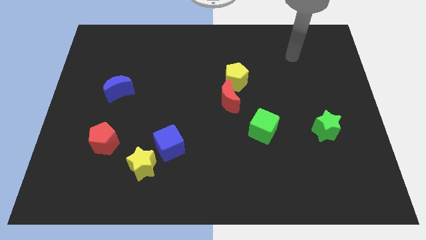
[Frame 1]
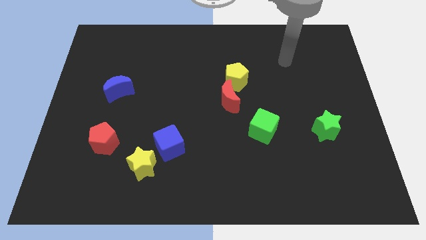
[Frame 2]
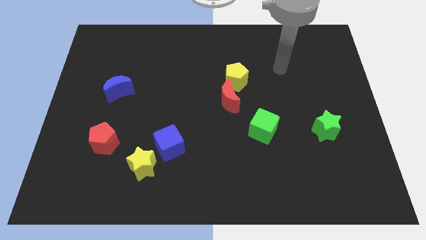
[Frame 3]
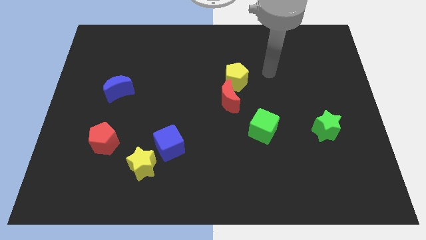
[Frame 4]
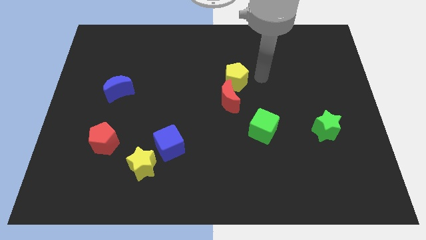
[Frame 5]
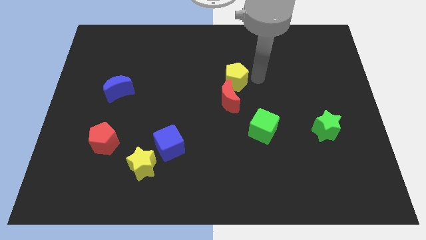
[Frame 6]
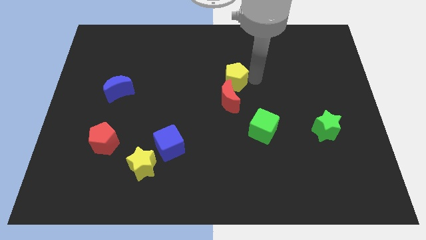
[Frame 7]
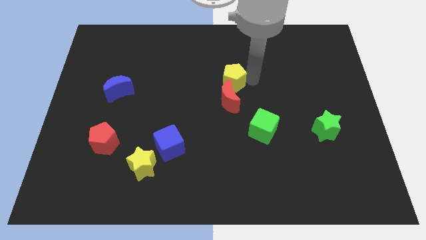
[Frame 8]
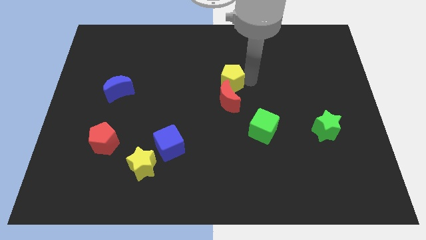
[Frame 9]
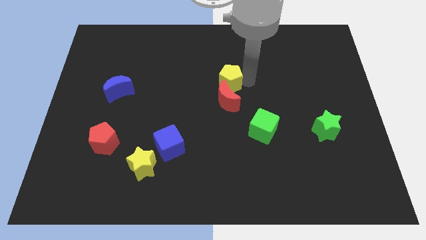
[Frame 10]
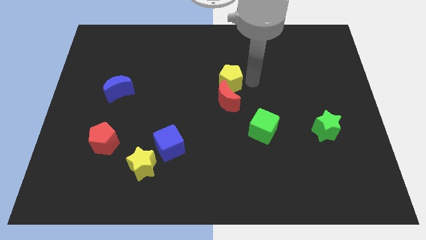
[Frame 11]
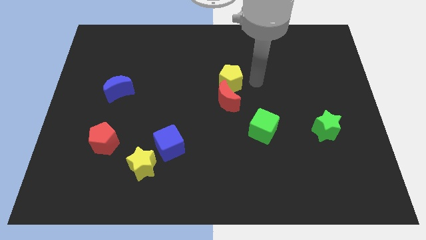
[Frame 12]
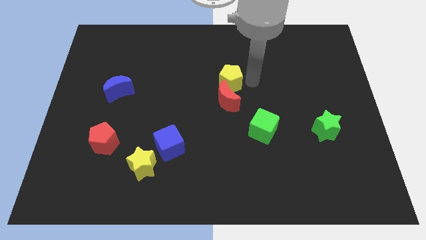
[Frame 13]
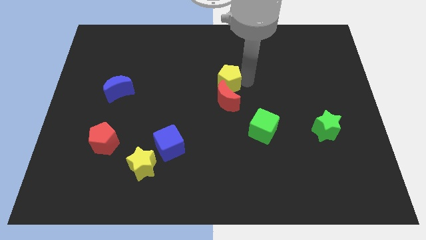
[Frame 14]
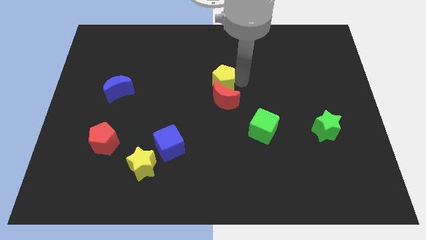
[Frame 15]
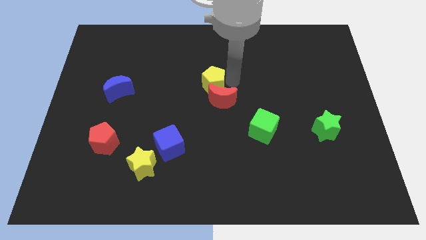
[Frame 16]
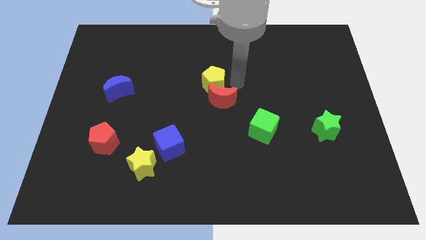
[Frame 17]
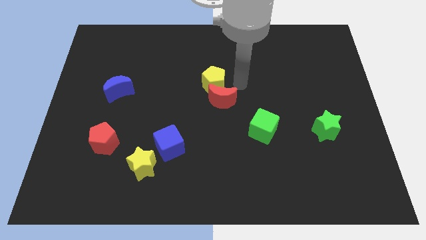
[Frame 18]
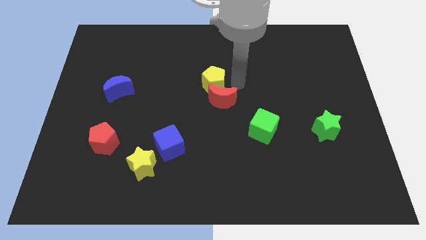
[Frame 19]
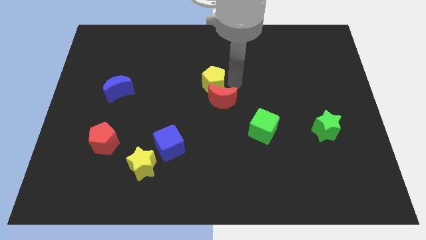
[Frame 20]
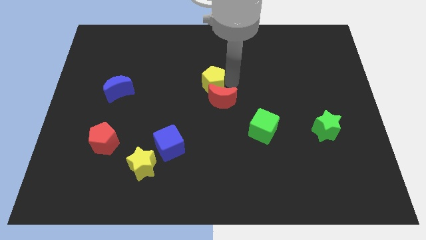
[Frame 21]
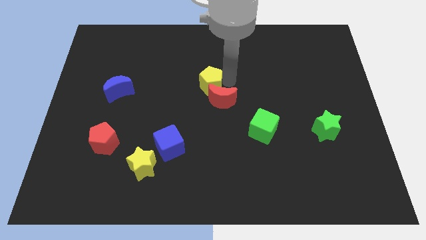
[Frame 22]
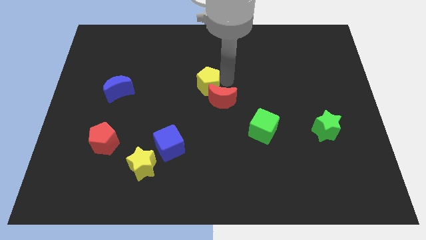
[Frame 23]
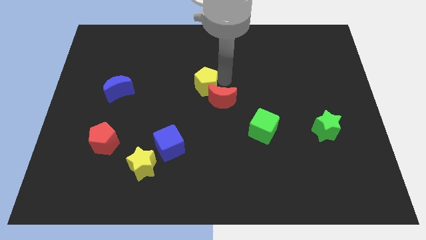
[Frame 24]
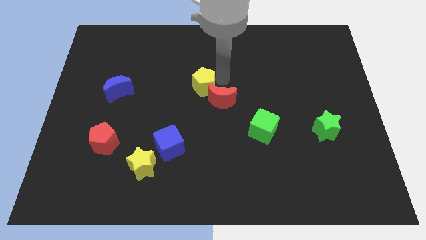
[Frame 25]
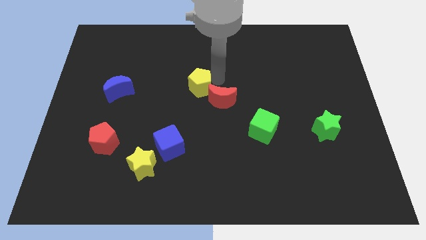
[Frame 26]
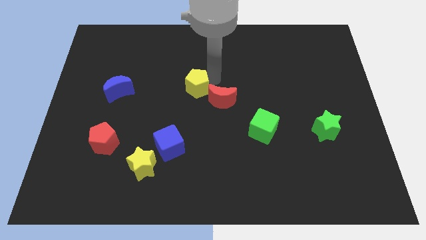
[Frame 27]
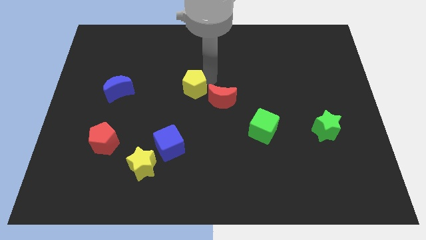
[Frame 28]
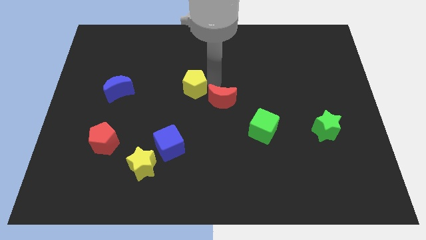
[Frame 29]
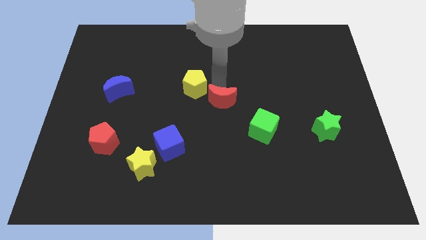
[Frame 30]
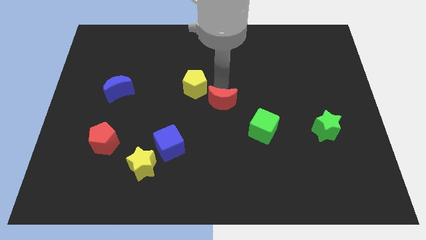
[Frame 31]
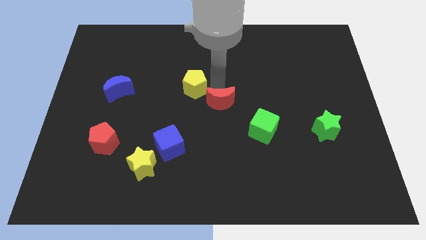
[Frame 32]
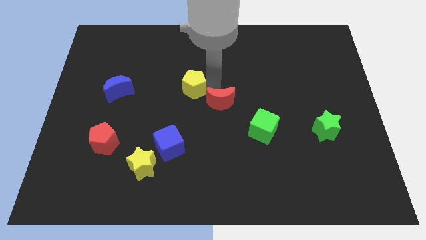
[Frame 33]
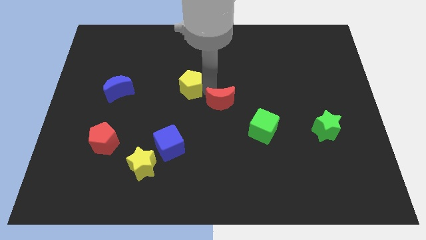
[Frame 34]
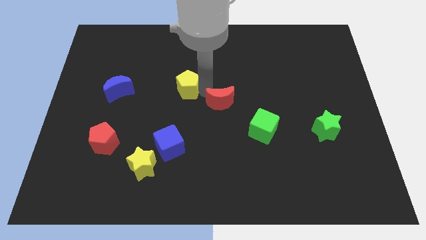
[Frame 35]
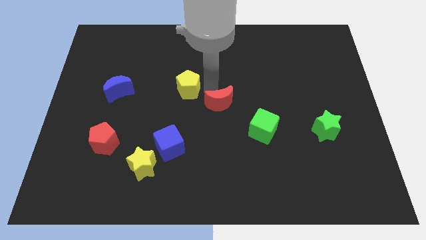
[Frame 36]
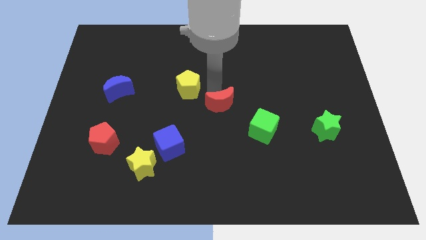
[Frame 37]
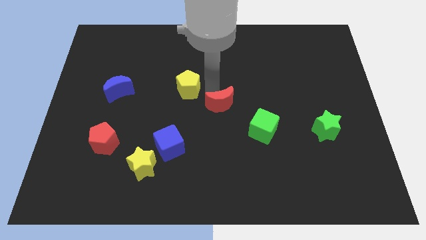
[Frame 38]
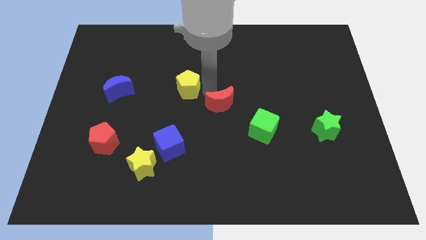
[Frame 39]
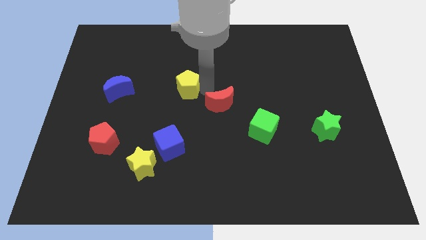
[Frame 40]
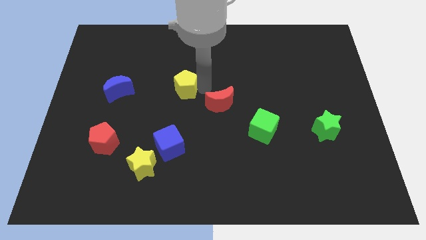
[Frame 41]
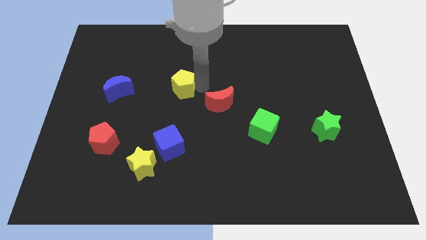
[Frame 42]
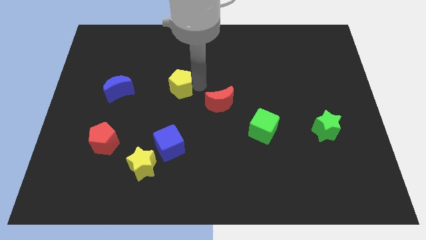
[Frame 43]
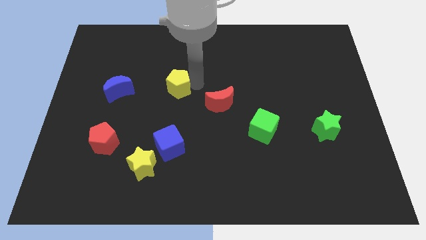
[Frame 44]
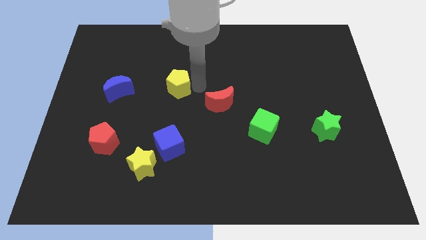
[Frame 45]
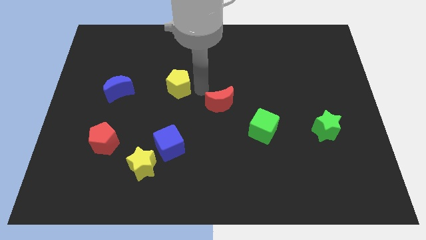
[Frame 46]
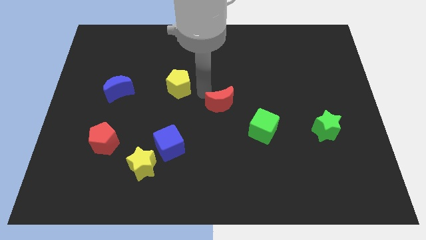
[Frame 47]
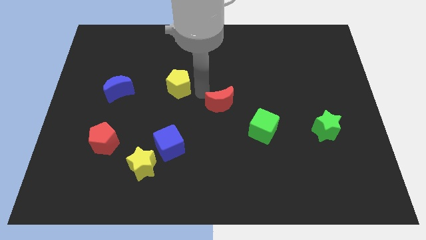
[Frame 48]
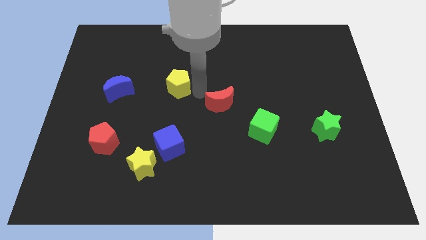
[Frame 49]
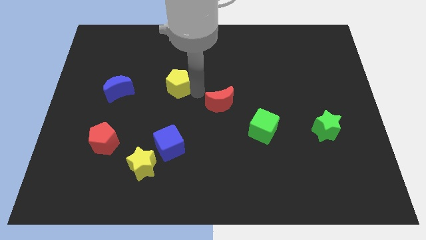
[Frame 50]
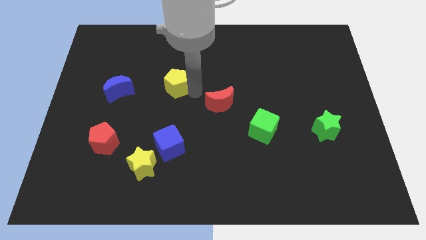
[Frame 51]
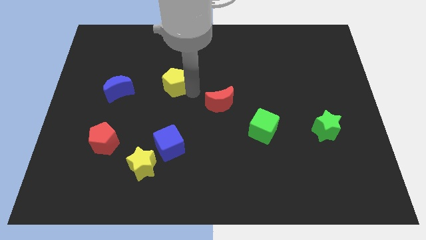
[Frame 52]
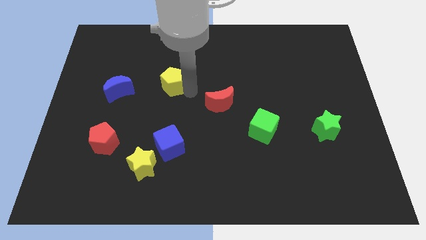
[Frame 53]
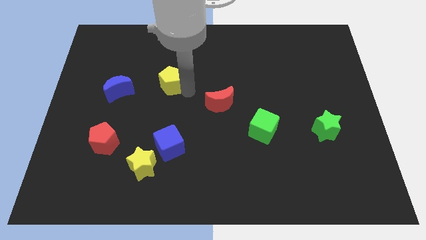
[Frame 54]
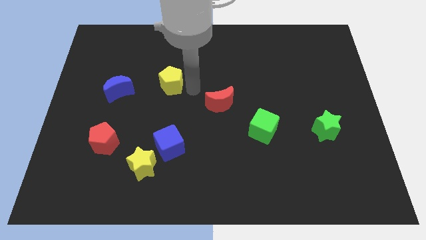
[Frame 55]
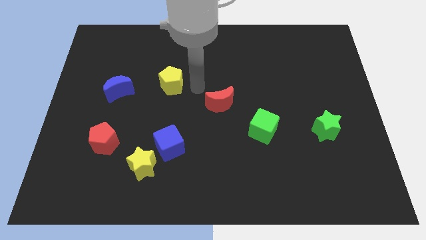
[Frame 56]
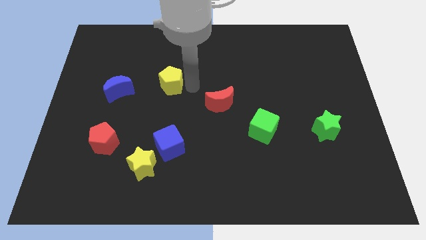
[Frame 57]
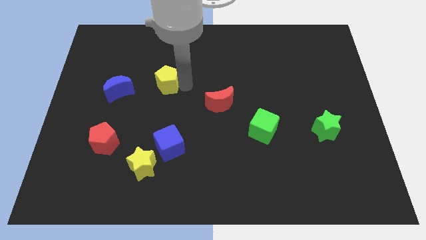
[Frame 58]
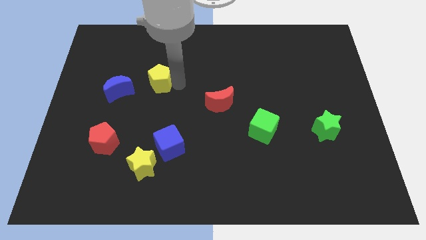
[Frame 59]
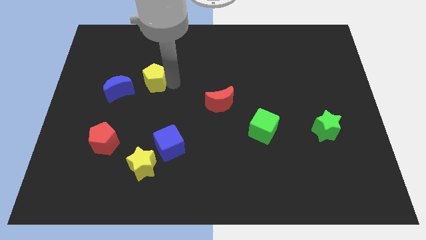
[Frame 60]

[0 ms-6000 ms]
slide the yellow pentagon left

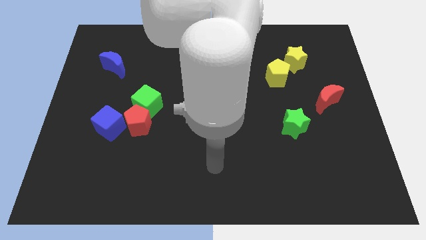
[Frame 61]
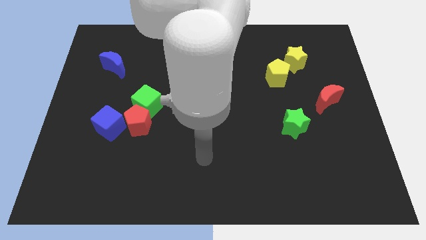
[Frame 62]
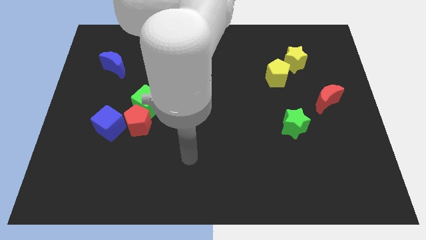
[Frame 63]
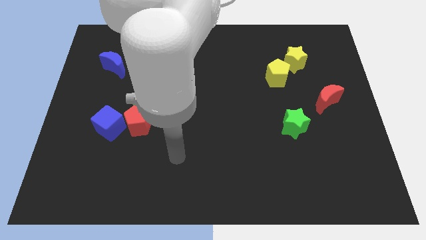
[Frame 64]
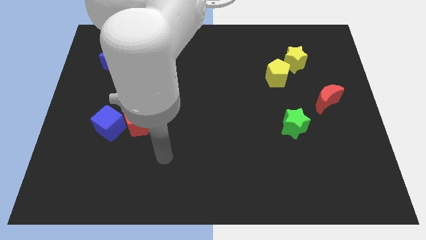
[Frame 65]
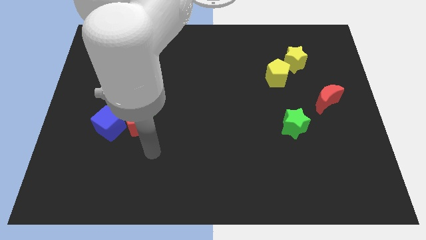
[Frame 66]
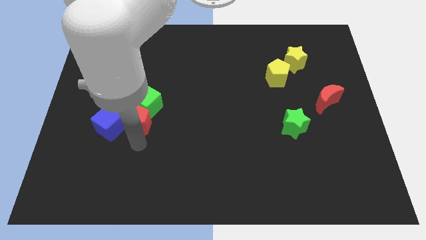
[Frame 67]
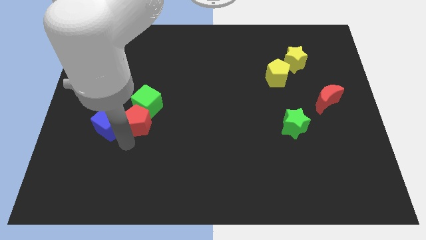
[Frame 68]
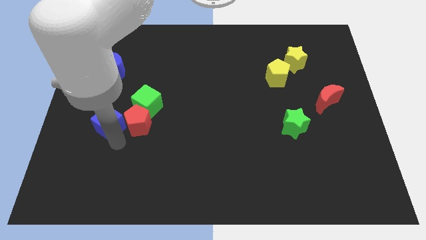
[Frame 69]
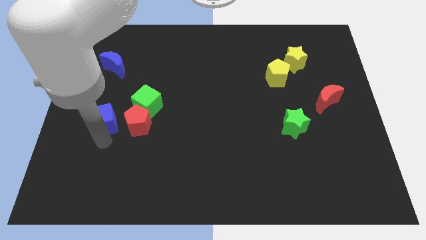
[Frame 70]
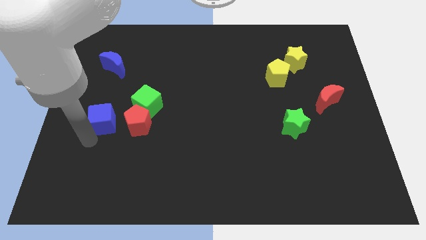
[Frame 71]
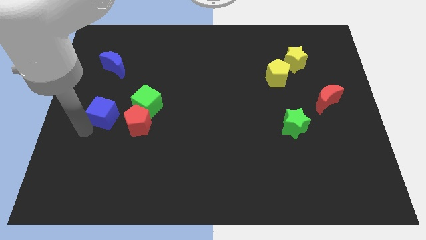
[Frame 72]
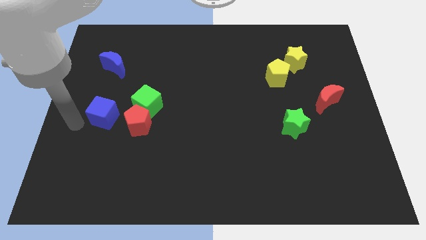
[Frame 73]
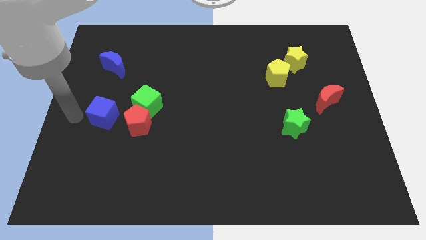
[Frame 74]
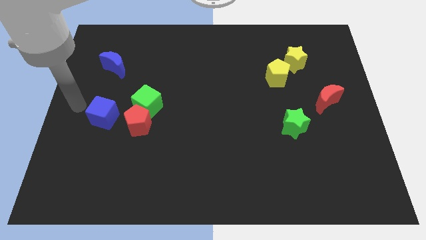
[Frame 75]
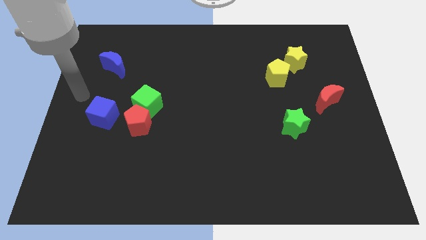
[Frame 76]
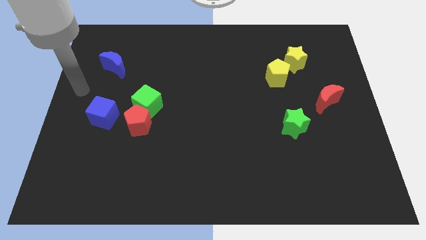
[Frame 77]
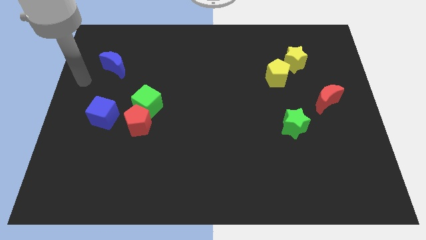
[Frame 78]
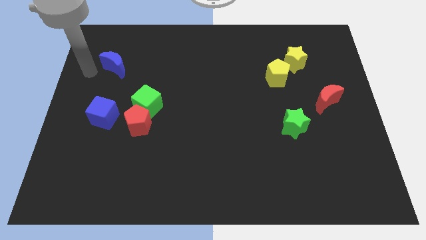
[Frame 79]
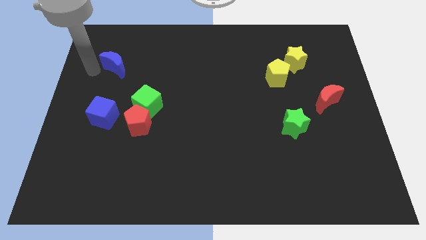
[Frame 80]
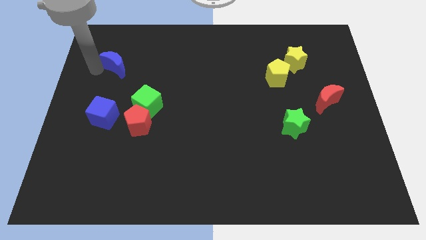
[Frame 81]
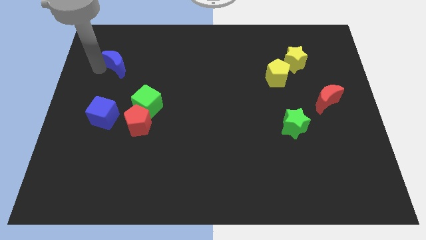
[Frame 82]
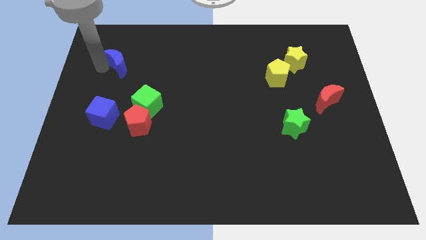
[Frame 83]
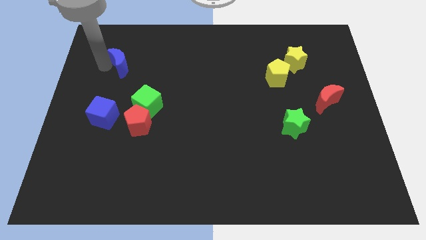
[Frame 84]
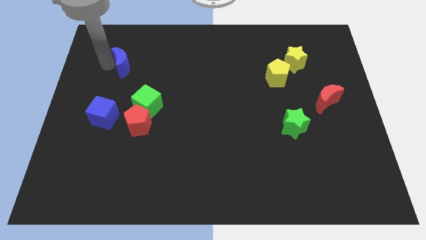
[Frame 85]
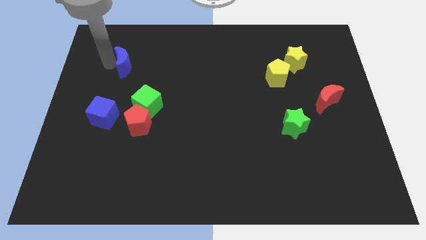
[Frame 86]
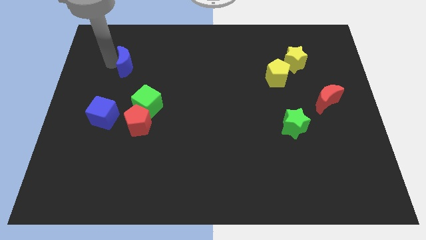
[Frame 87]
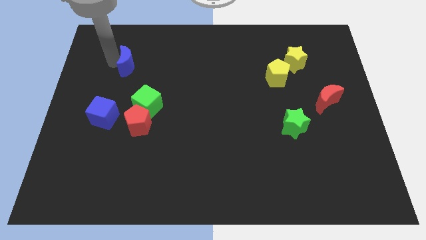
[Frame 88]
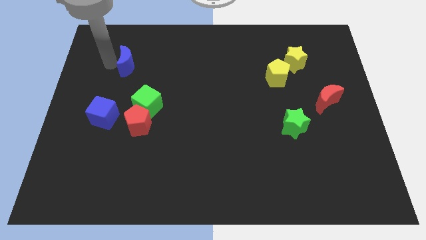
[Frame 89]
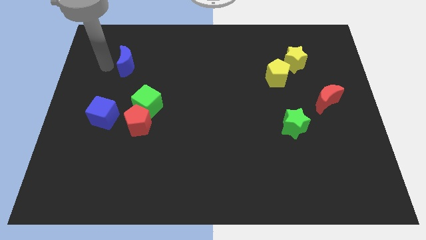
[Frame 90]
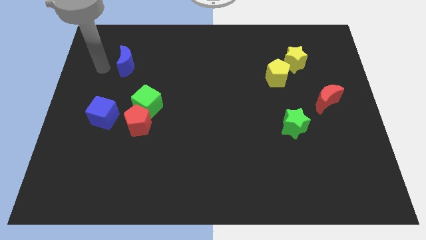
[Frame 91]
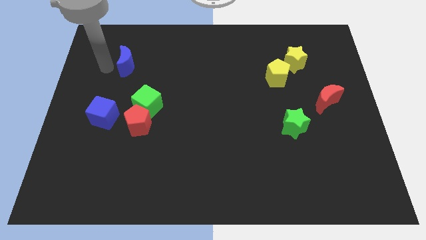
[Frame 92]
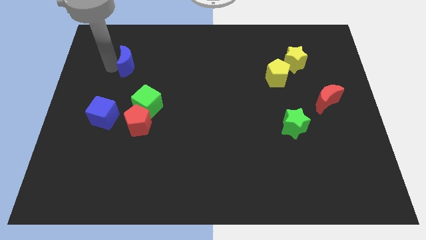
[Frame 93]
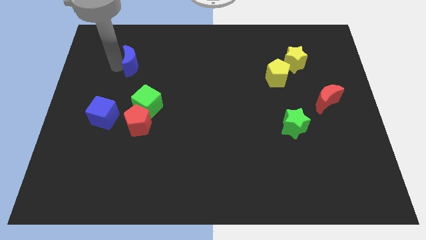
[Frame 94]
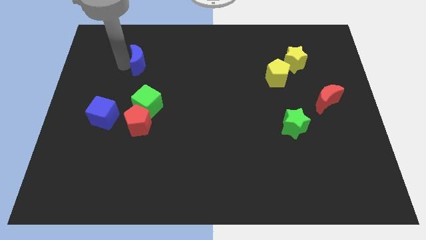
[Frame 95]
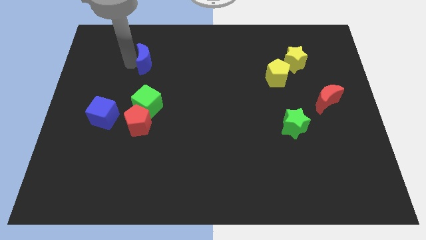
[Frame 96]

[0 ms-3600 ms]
slide the blue moon to the right a little bit
